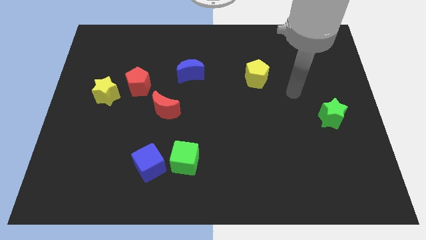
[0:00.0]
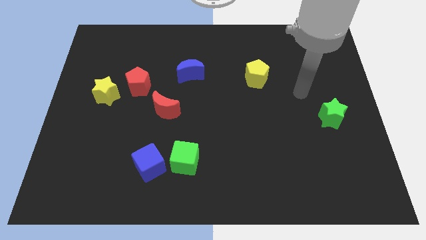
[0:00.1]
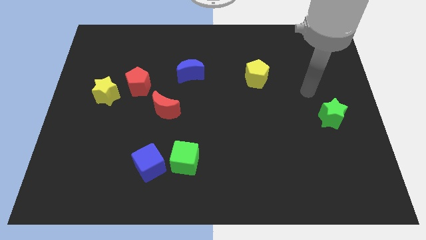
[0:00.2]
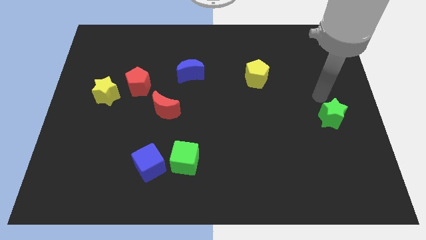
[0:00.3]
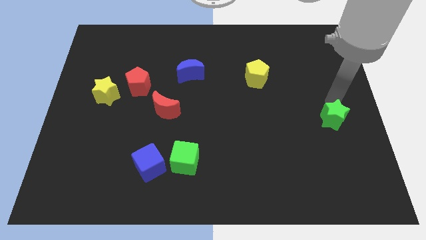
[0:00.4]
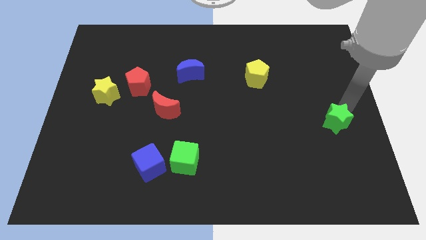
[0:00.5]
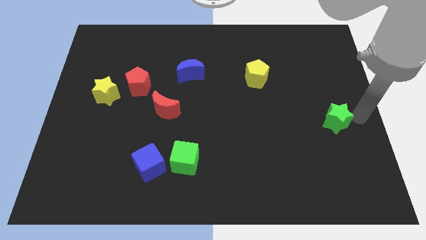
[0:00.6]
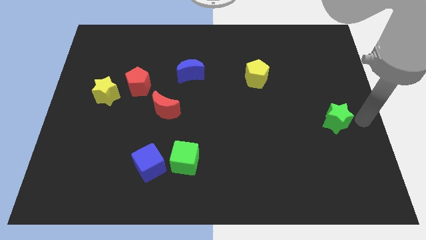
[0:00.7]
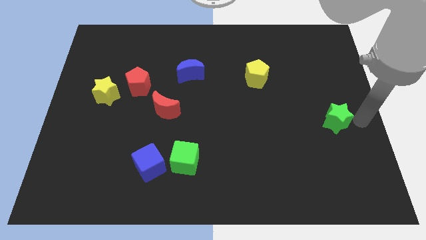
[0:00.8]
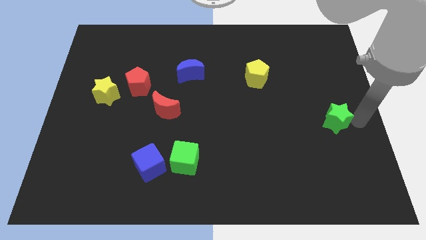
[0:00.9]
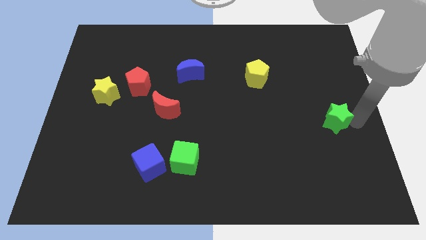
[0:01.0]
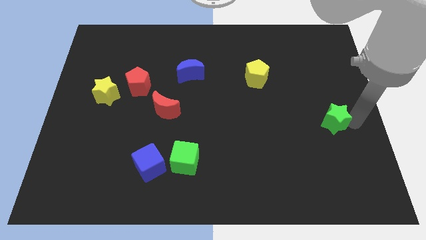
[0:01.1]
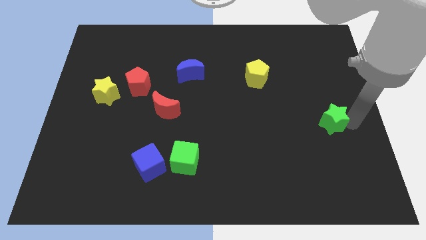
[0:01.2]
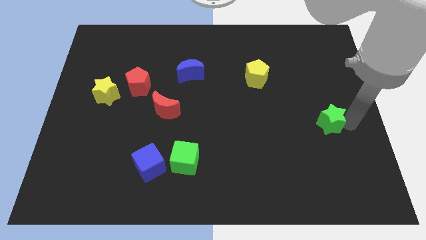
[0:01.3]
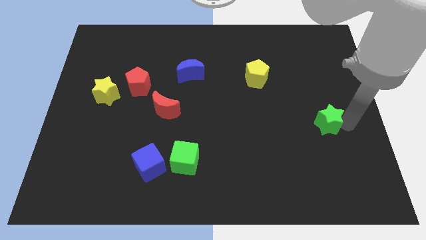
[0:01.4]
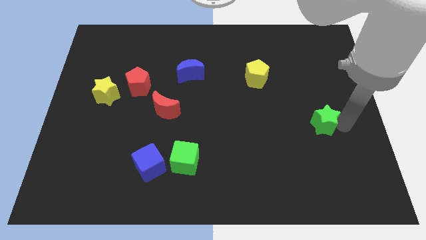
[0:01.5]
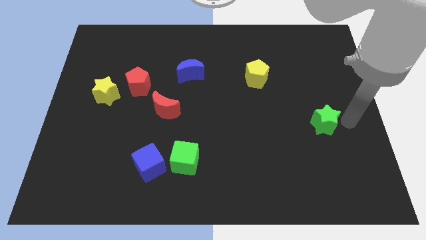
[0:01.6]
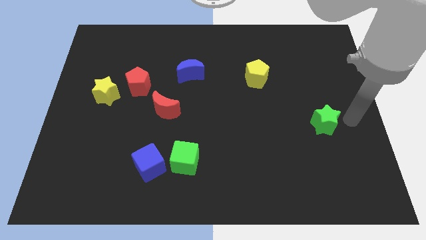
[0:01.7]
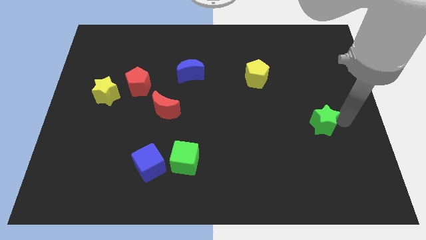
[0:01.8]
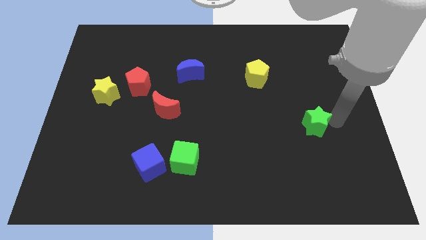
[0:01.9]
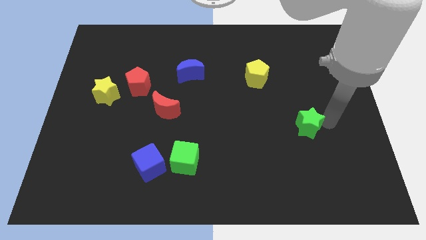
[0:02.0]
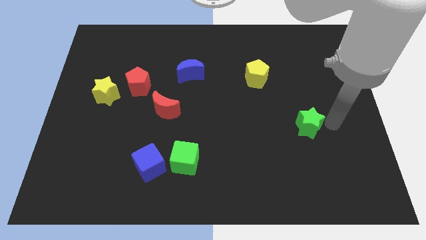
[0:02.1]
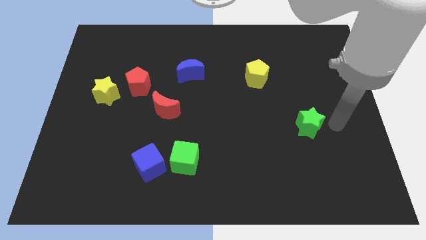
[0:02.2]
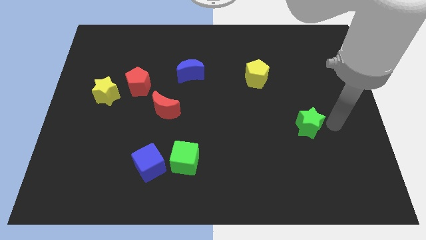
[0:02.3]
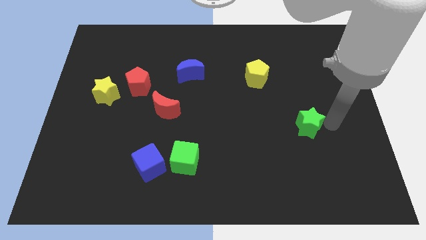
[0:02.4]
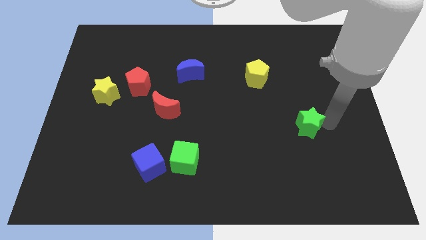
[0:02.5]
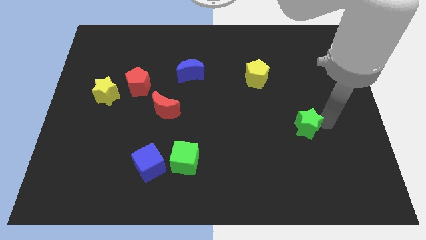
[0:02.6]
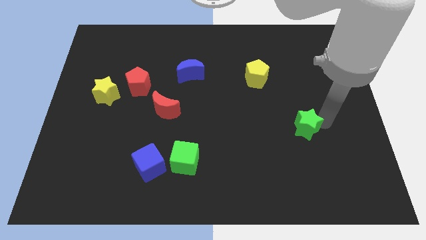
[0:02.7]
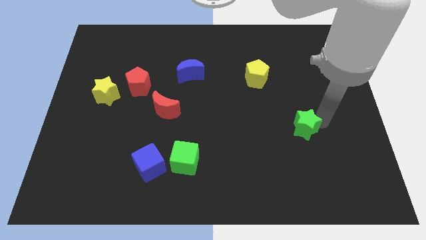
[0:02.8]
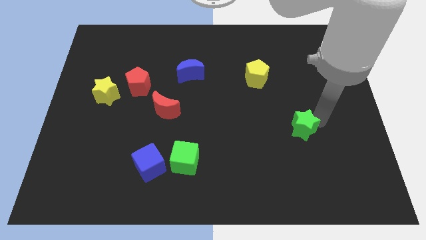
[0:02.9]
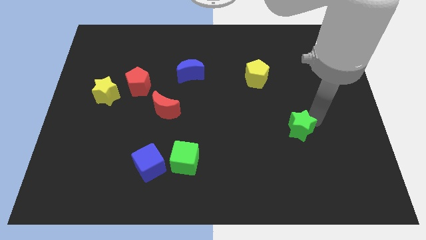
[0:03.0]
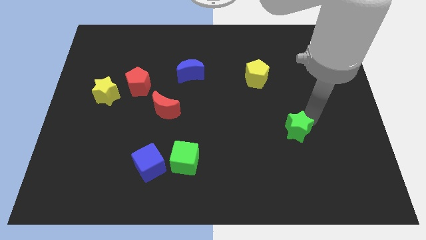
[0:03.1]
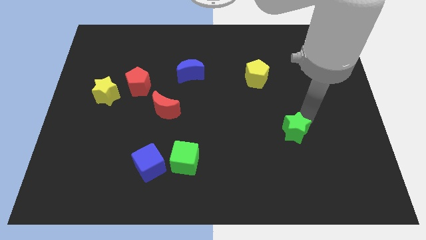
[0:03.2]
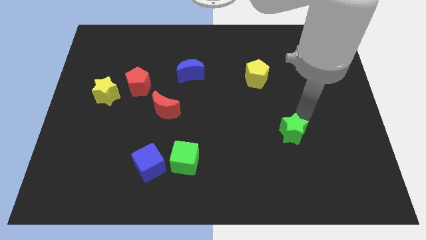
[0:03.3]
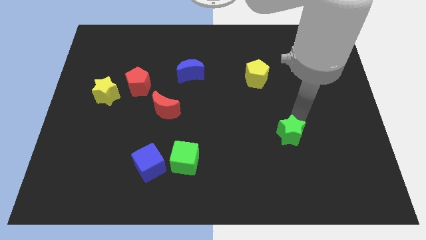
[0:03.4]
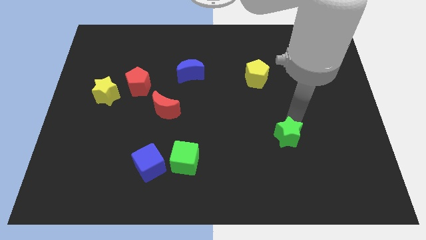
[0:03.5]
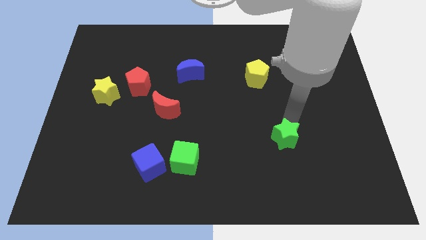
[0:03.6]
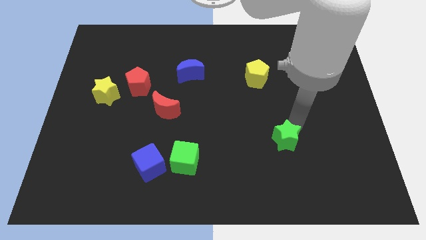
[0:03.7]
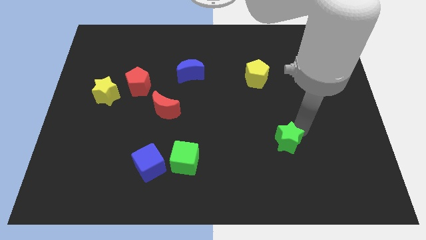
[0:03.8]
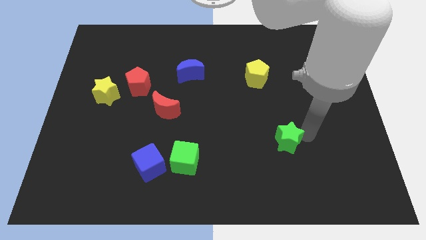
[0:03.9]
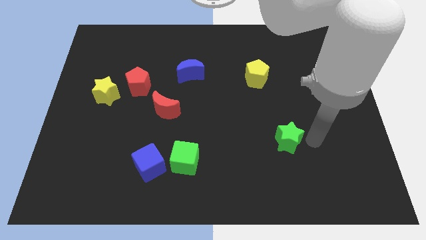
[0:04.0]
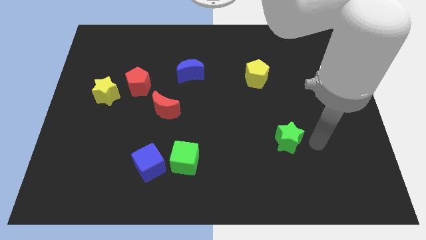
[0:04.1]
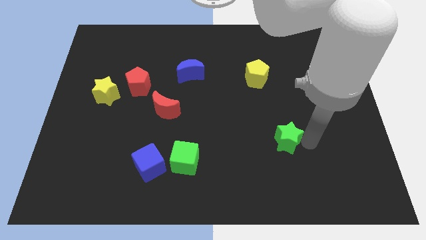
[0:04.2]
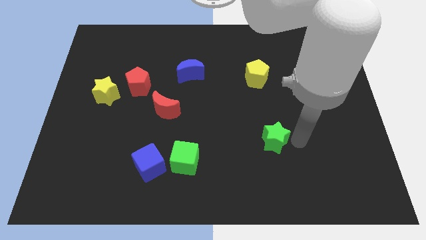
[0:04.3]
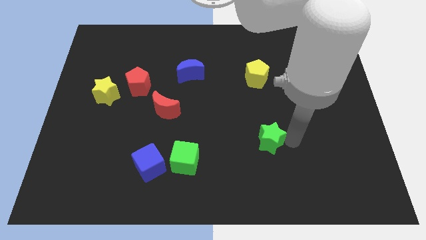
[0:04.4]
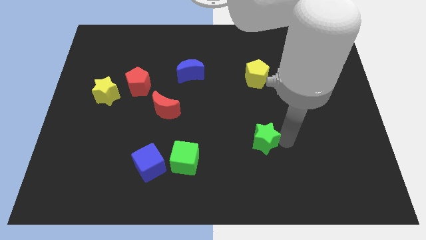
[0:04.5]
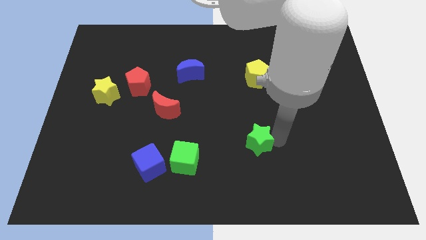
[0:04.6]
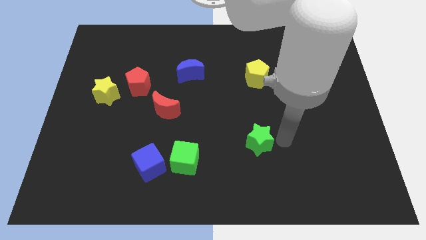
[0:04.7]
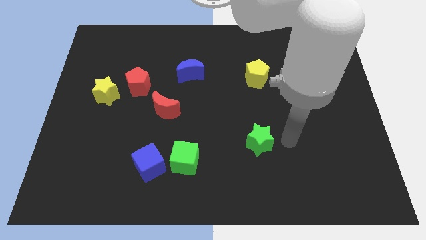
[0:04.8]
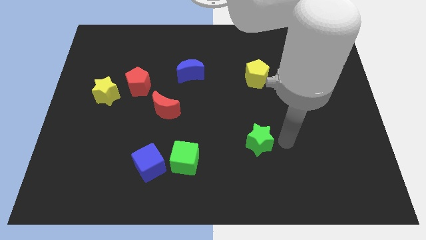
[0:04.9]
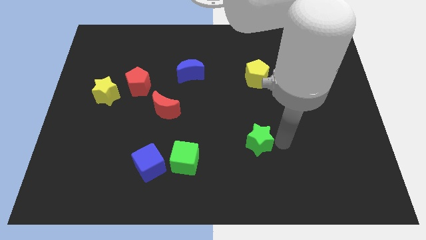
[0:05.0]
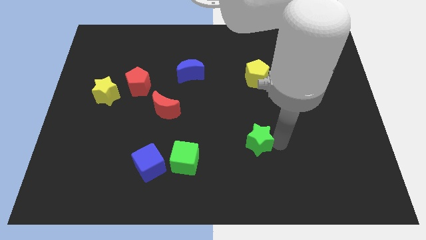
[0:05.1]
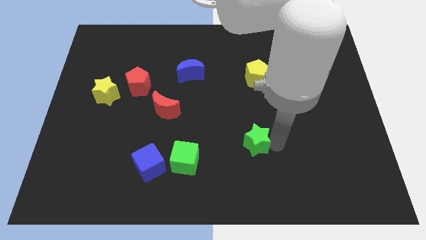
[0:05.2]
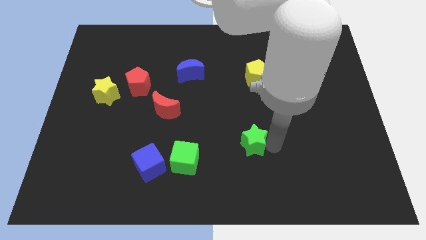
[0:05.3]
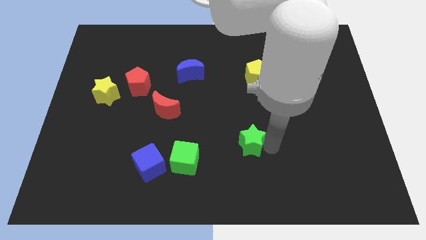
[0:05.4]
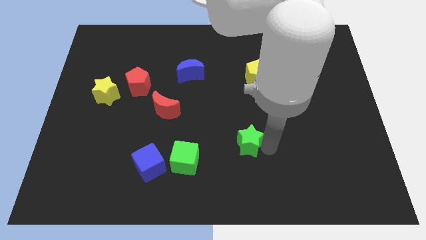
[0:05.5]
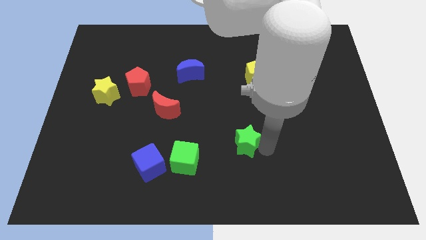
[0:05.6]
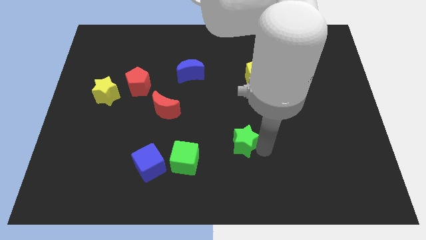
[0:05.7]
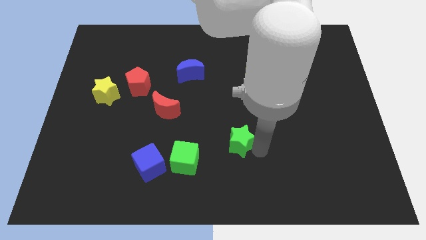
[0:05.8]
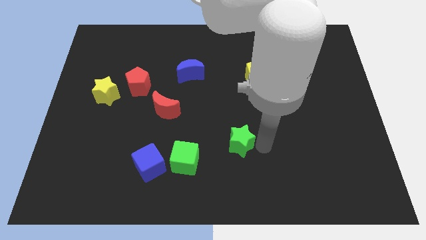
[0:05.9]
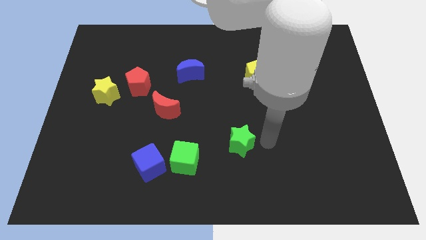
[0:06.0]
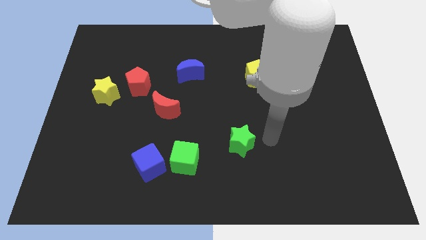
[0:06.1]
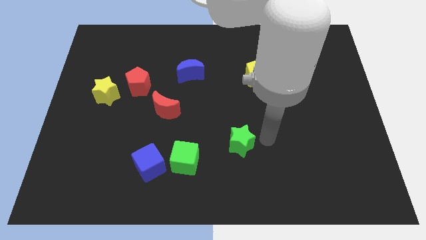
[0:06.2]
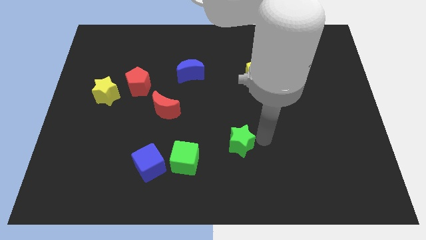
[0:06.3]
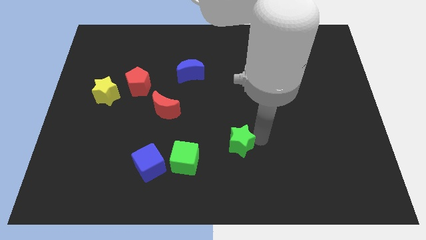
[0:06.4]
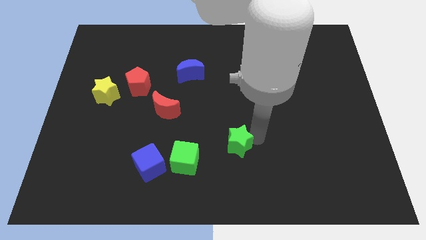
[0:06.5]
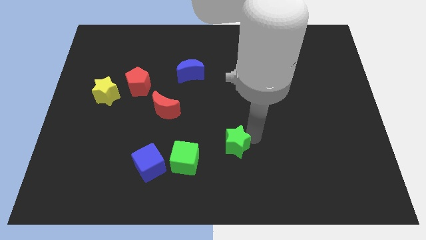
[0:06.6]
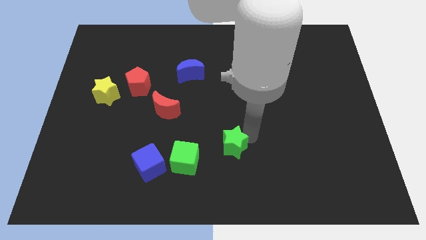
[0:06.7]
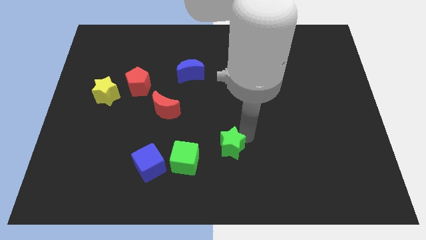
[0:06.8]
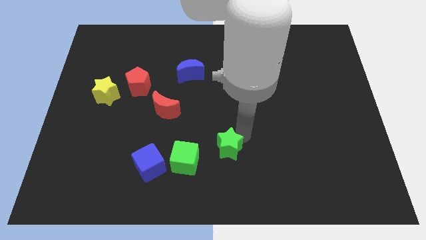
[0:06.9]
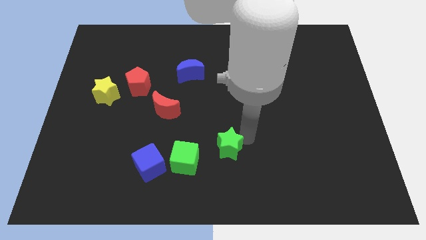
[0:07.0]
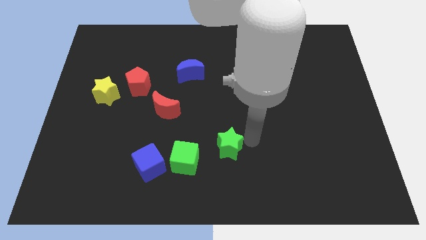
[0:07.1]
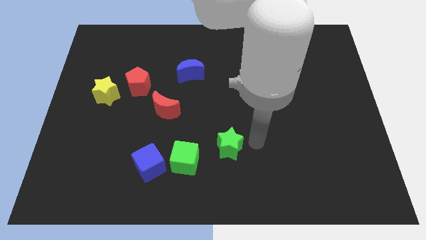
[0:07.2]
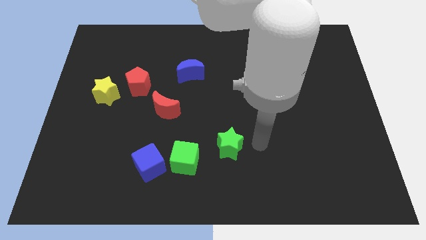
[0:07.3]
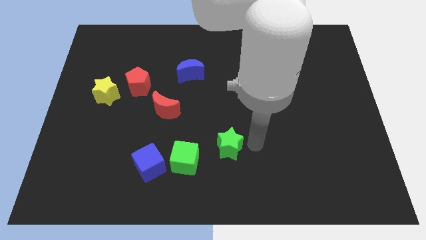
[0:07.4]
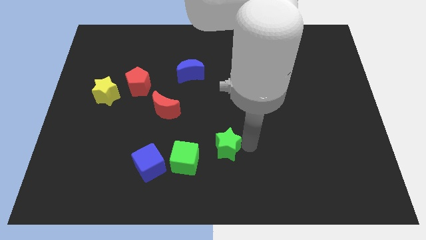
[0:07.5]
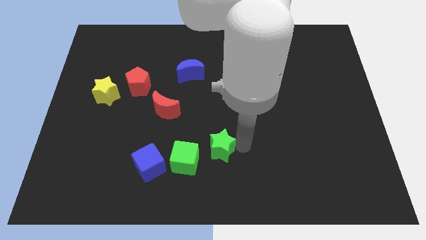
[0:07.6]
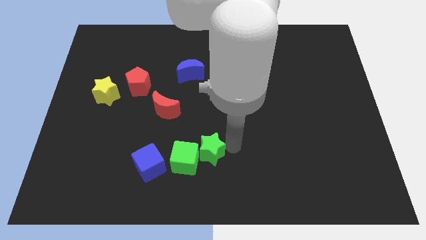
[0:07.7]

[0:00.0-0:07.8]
push the green star close to the green cube
